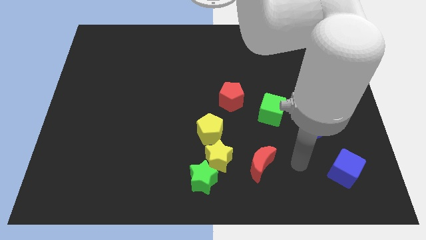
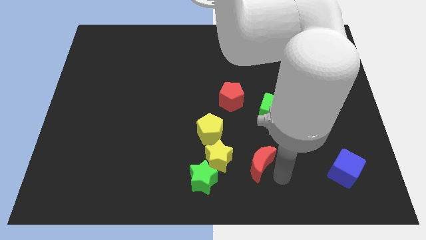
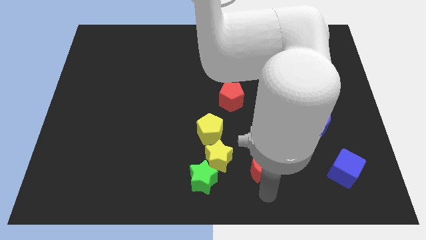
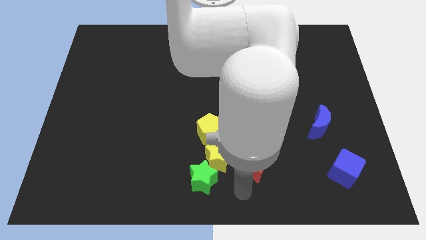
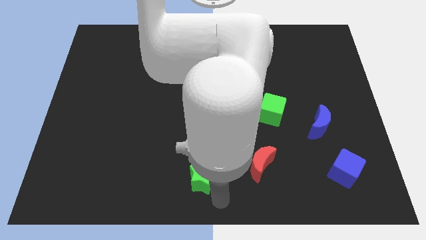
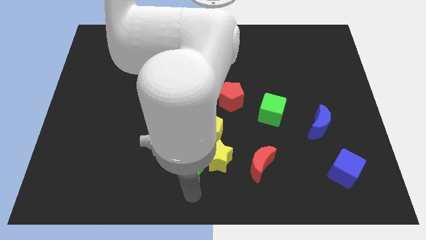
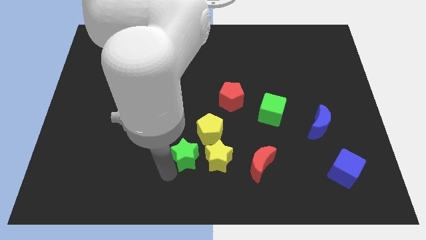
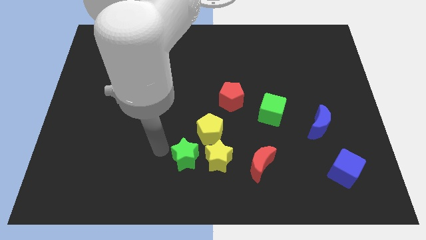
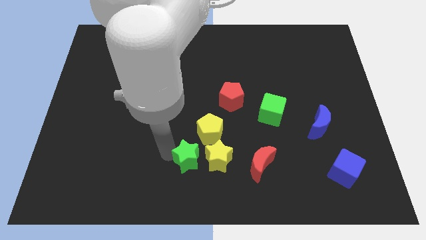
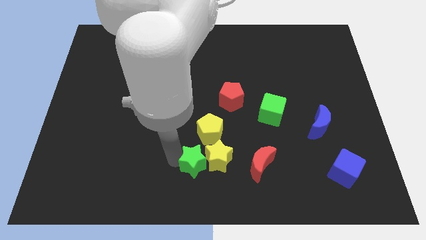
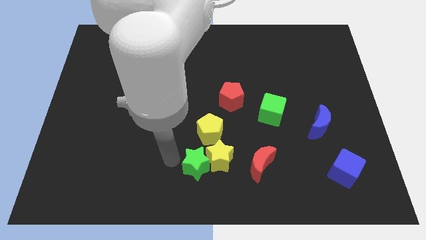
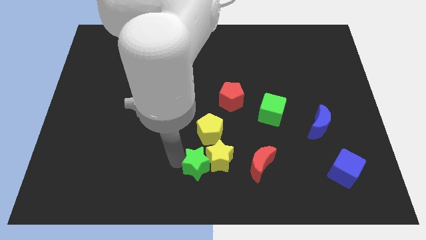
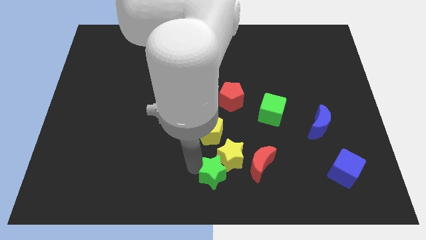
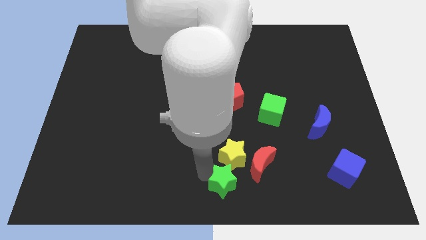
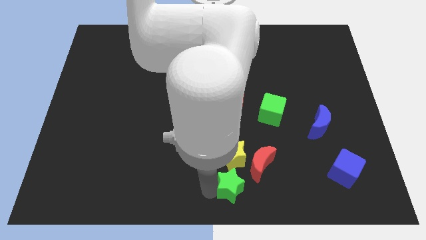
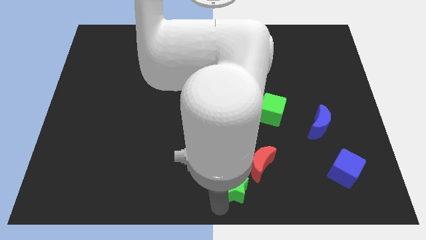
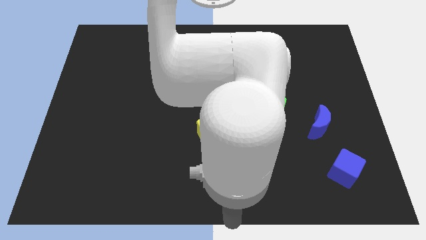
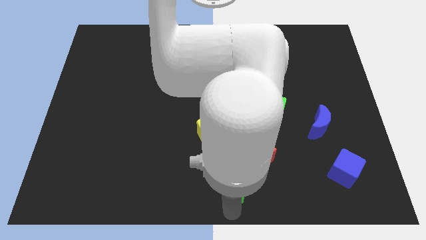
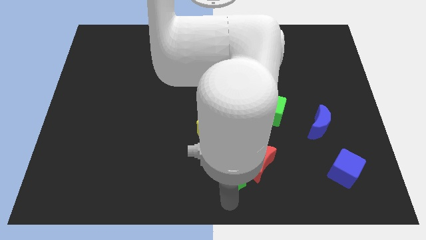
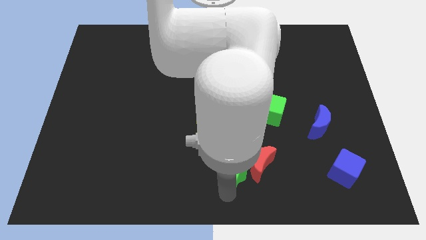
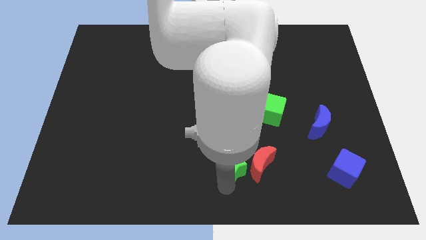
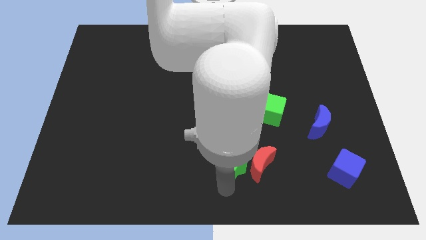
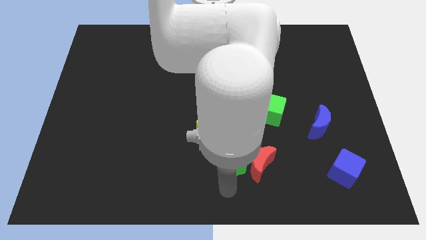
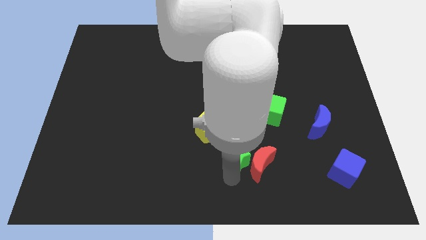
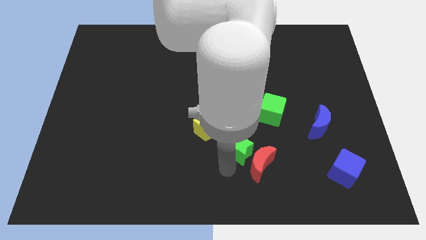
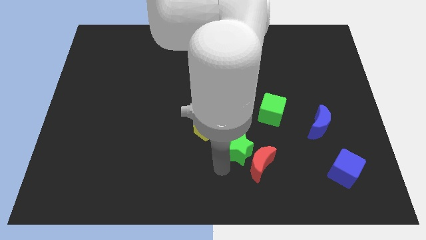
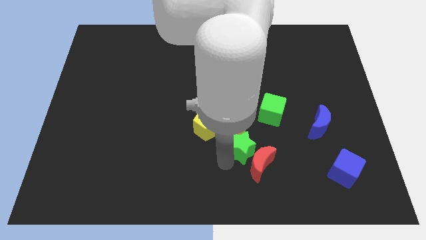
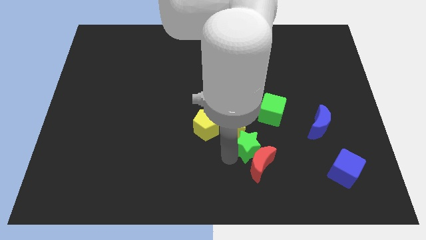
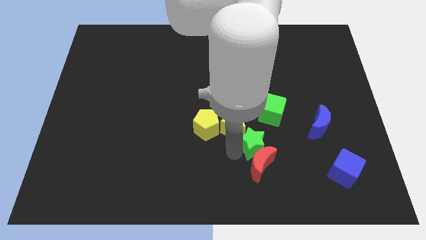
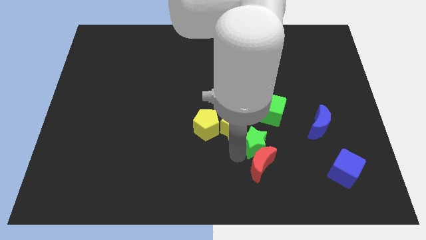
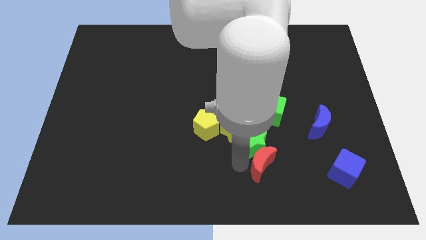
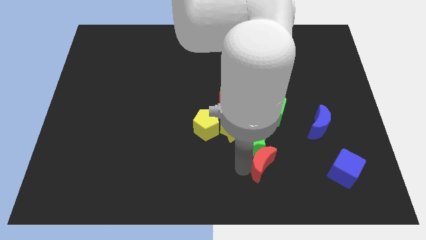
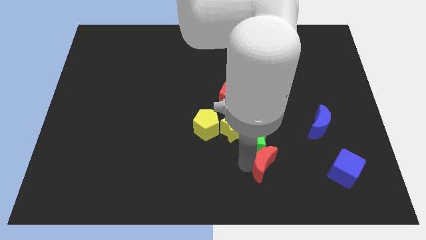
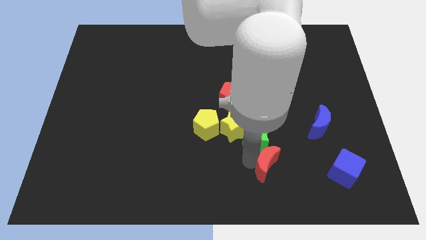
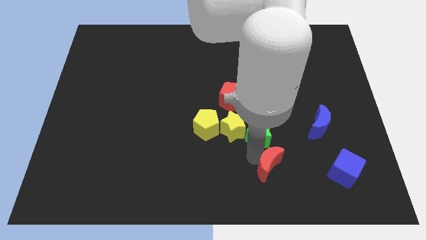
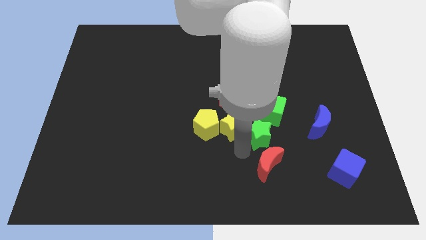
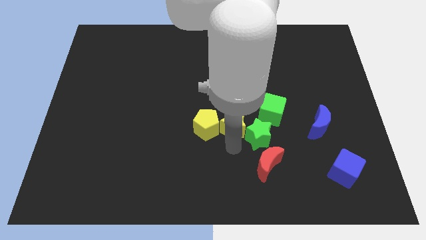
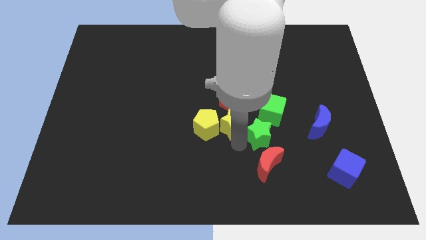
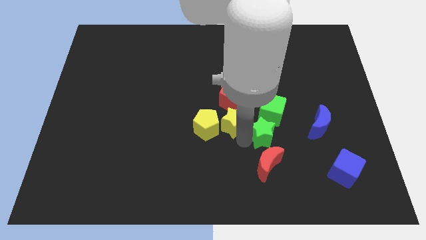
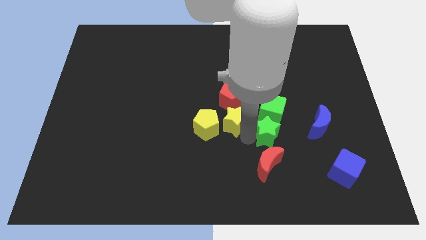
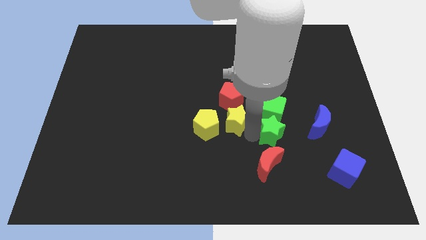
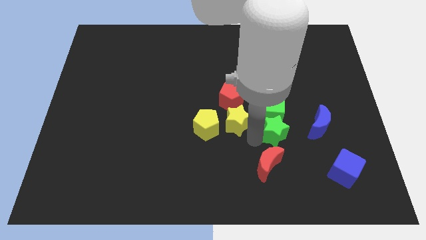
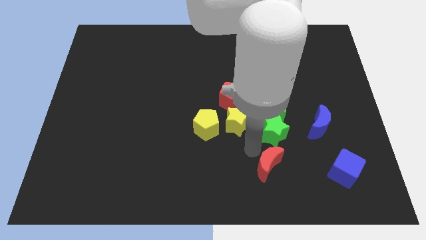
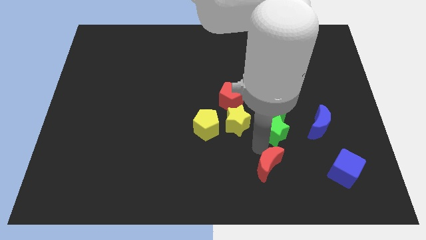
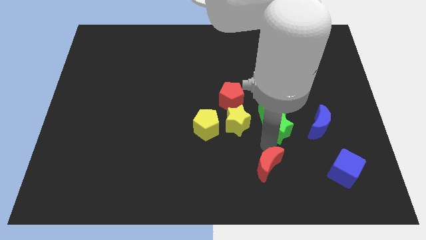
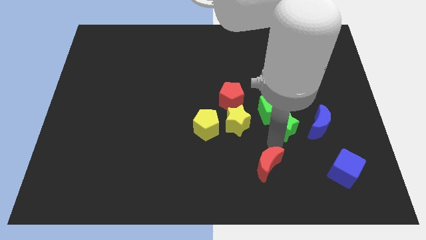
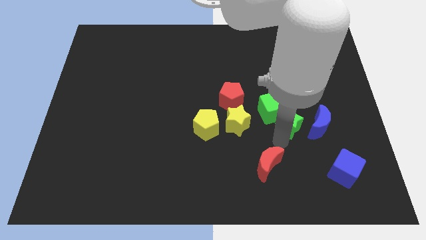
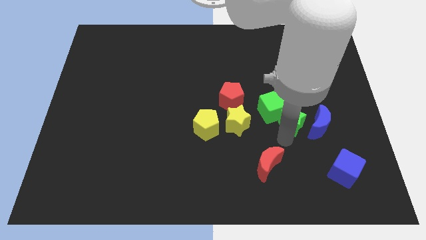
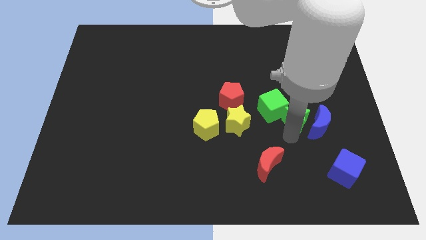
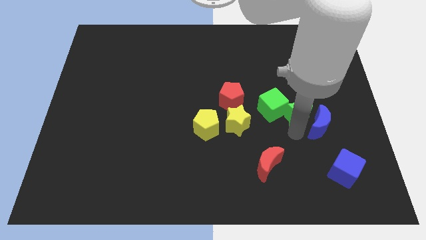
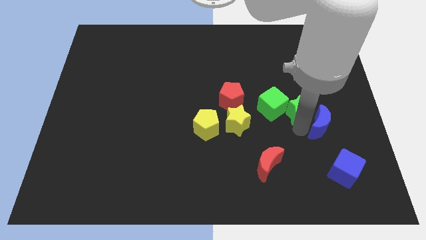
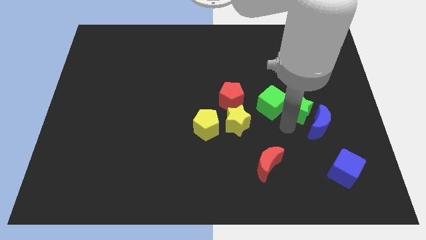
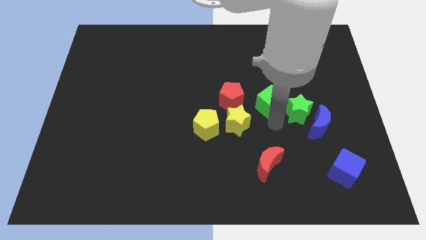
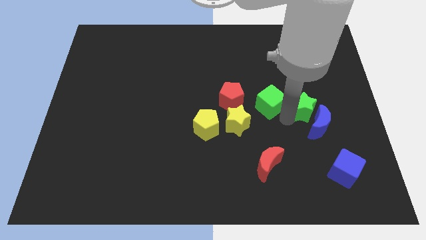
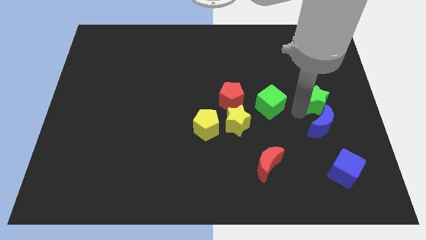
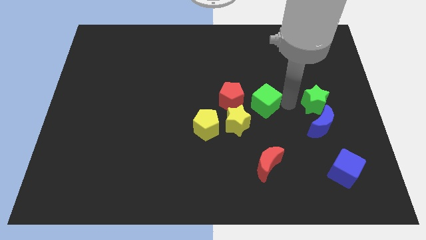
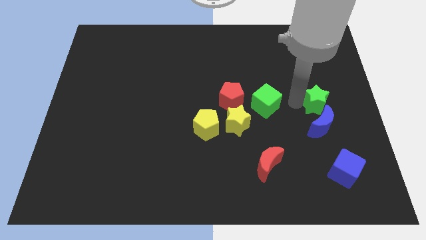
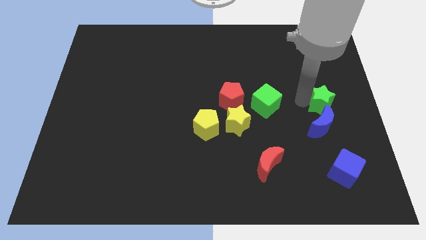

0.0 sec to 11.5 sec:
put the green star to the center right
